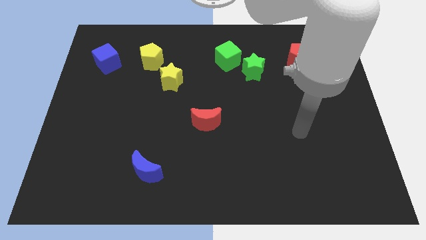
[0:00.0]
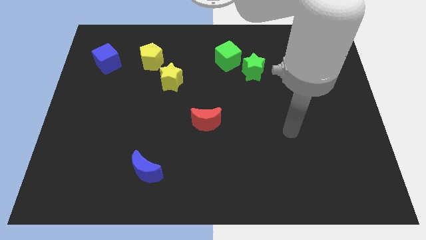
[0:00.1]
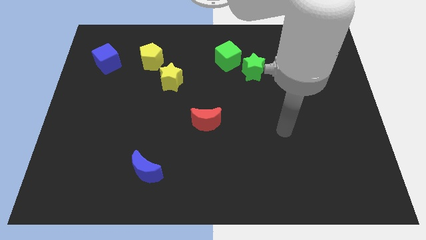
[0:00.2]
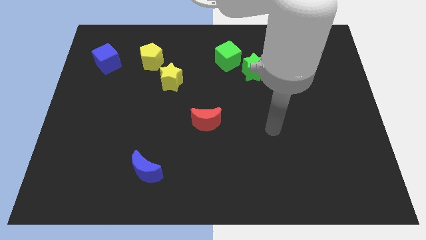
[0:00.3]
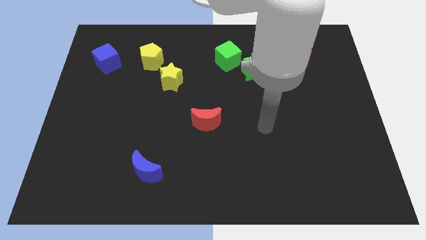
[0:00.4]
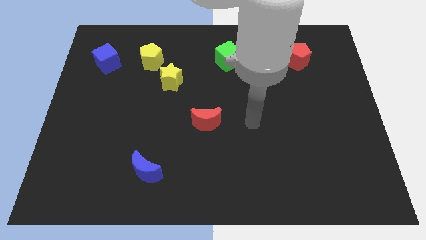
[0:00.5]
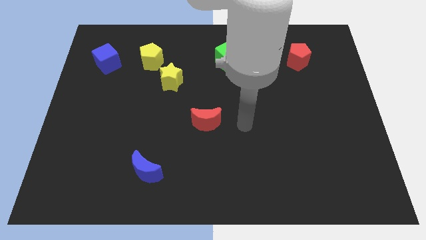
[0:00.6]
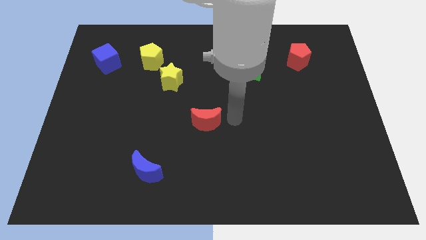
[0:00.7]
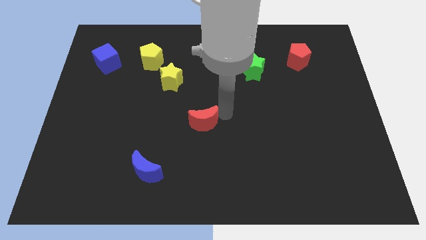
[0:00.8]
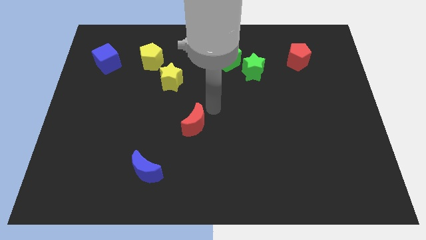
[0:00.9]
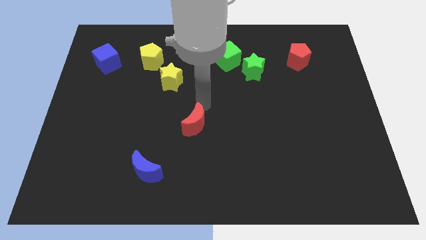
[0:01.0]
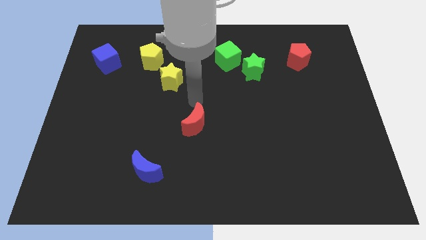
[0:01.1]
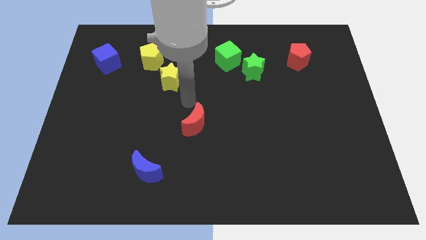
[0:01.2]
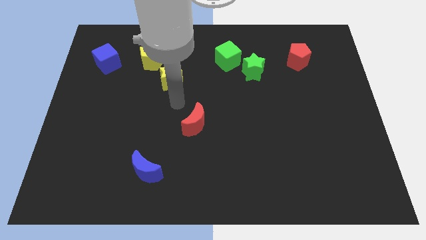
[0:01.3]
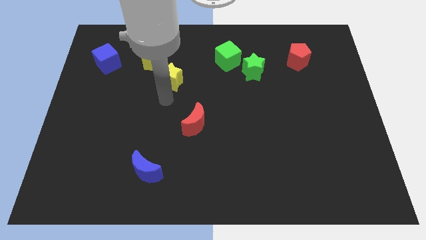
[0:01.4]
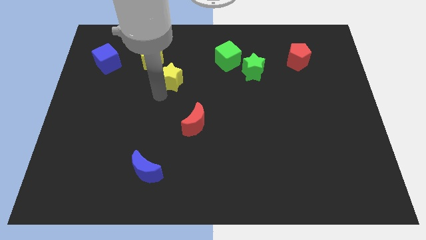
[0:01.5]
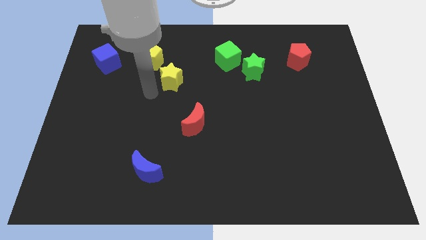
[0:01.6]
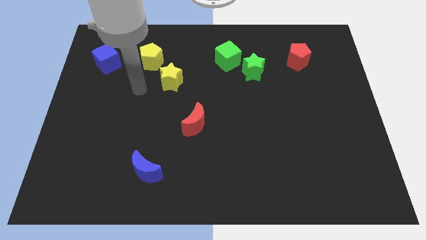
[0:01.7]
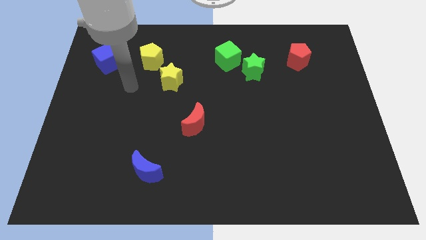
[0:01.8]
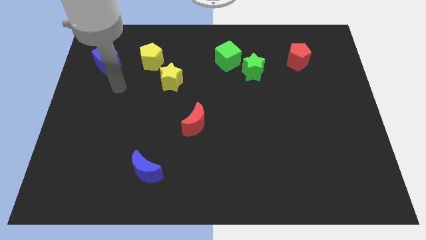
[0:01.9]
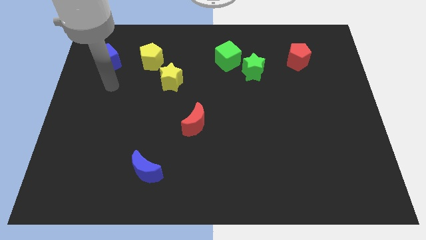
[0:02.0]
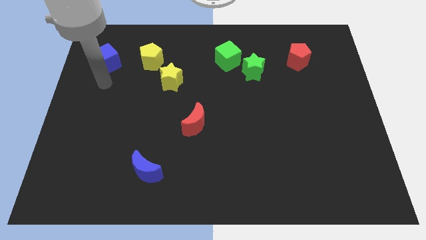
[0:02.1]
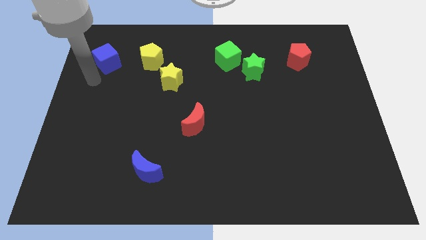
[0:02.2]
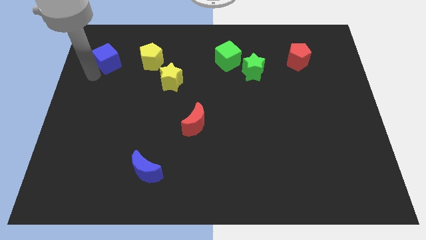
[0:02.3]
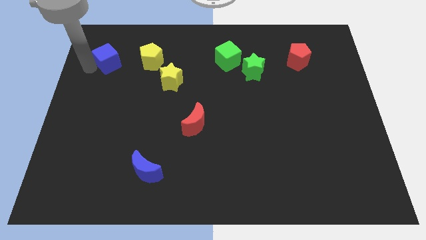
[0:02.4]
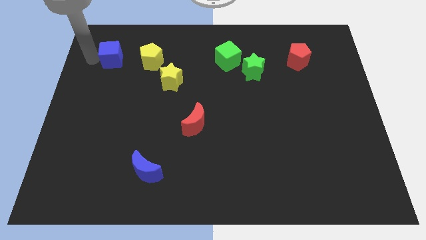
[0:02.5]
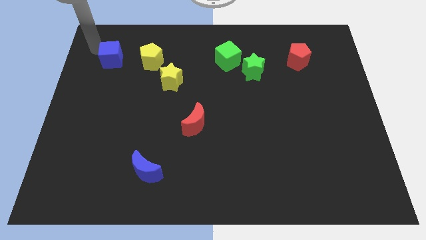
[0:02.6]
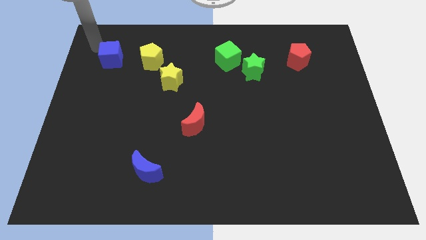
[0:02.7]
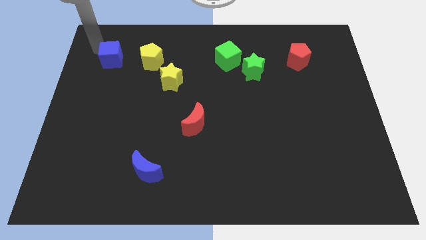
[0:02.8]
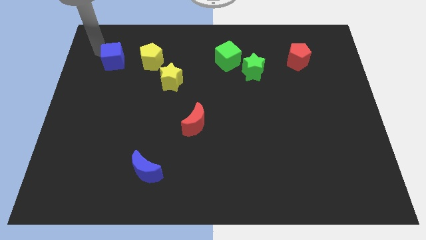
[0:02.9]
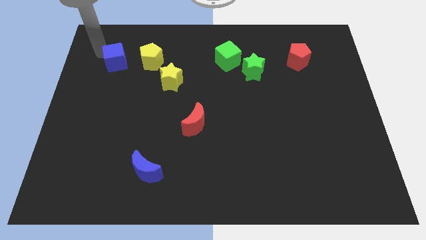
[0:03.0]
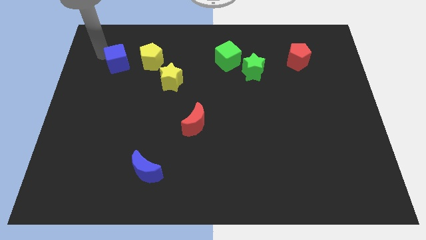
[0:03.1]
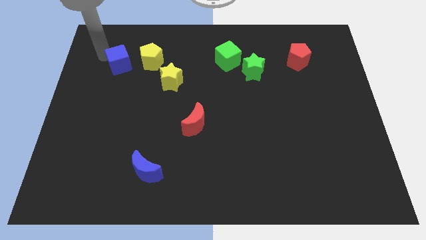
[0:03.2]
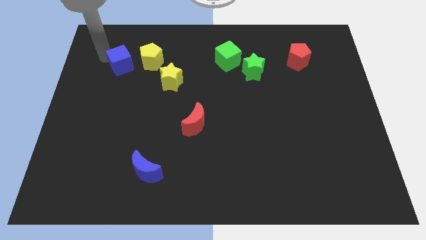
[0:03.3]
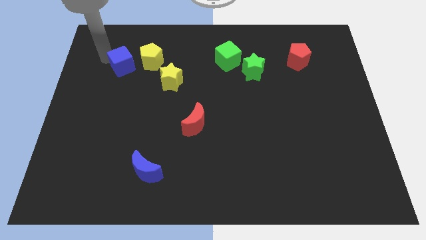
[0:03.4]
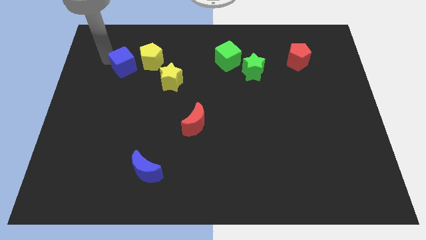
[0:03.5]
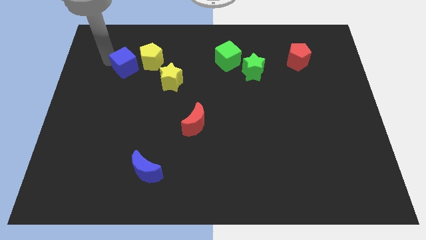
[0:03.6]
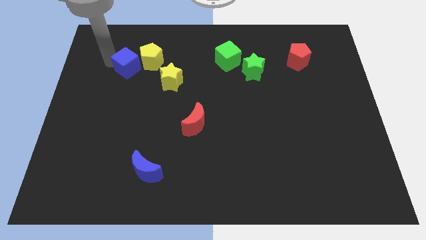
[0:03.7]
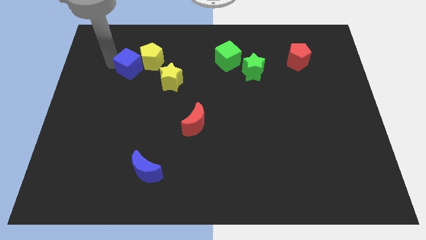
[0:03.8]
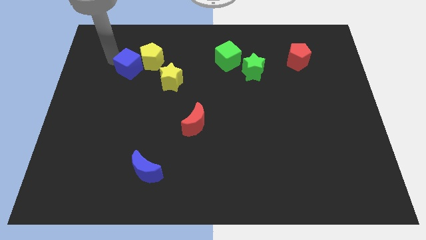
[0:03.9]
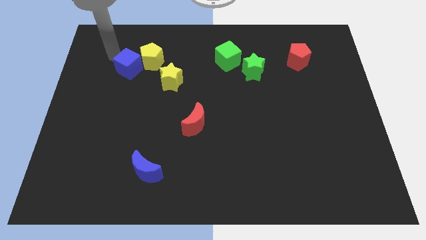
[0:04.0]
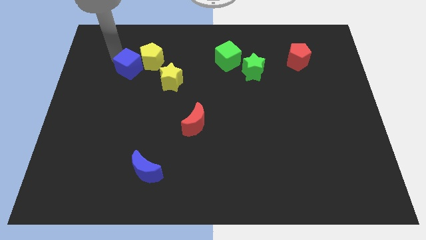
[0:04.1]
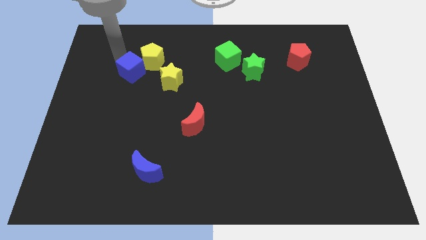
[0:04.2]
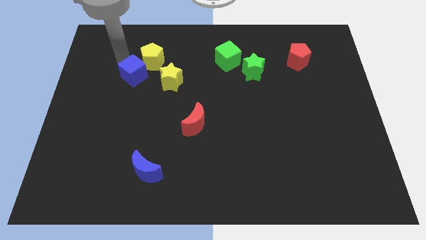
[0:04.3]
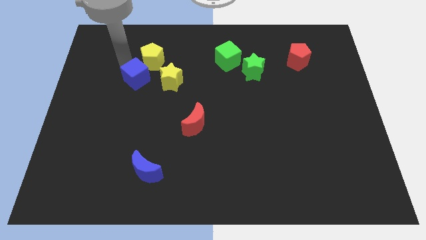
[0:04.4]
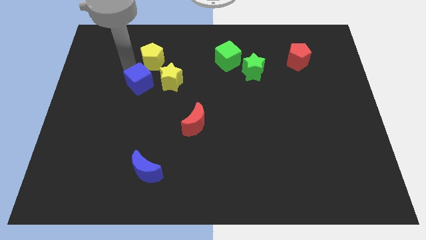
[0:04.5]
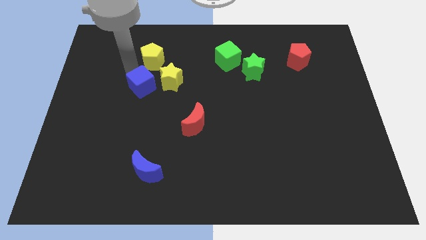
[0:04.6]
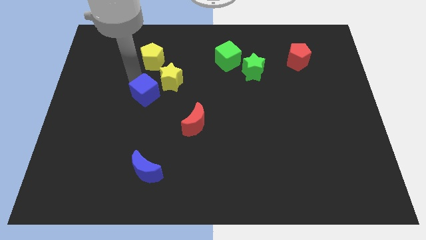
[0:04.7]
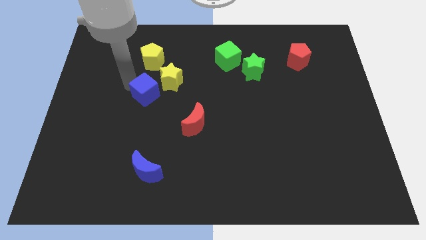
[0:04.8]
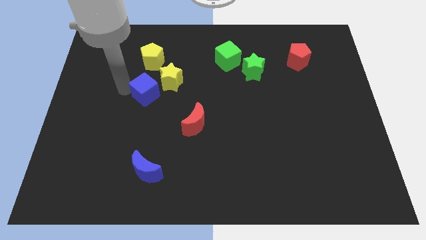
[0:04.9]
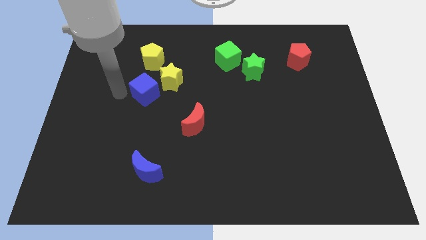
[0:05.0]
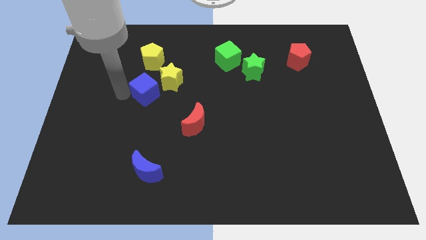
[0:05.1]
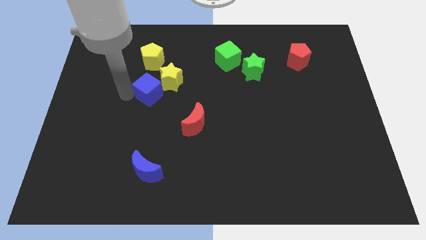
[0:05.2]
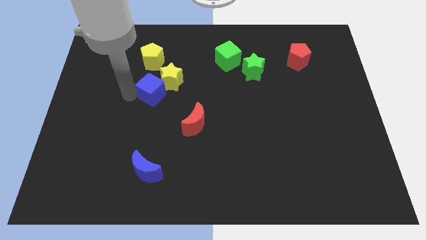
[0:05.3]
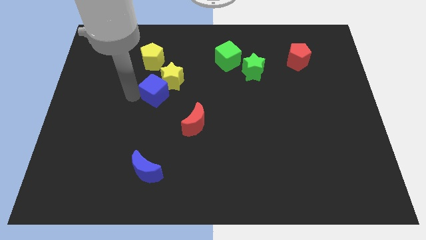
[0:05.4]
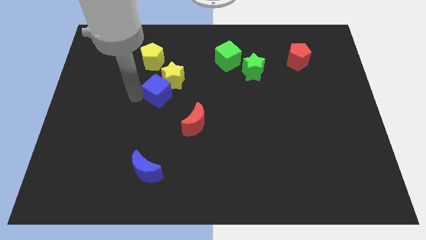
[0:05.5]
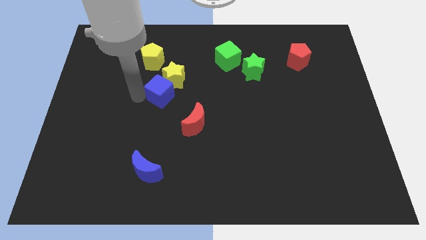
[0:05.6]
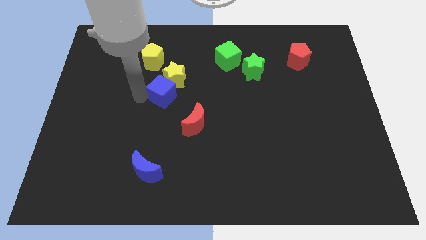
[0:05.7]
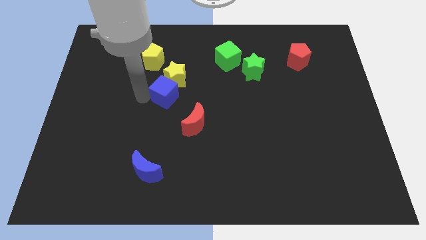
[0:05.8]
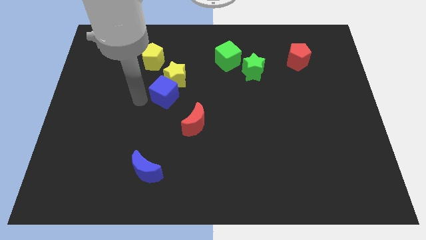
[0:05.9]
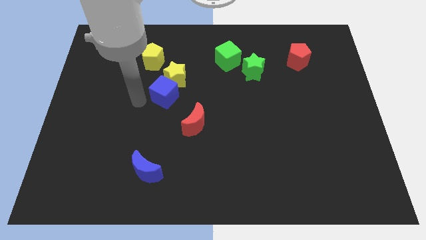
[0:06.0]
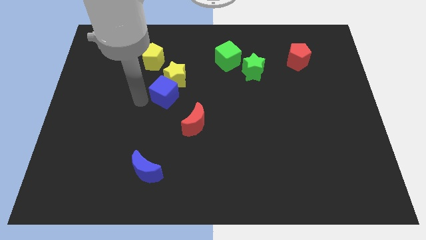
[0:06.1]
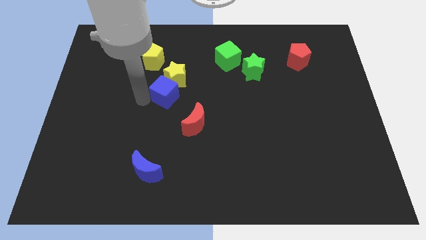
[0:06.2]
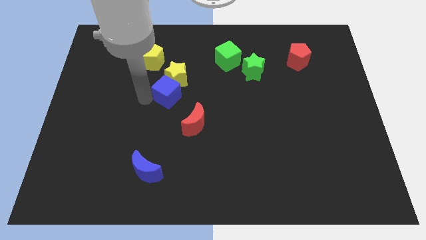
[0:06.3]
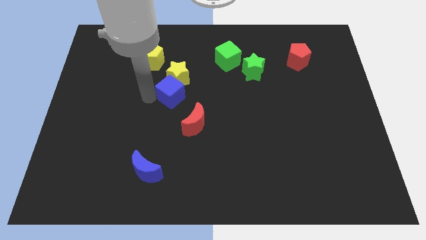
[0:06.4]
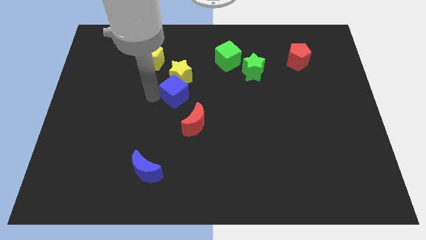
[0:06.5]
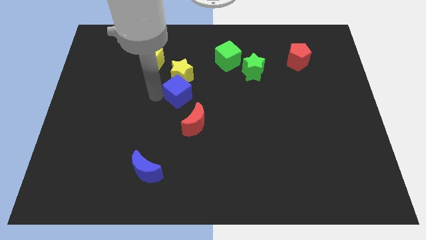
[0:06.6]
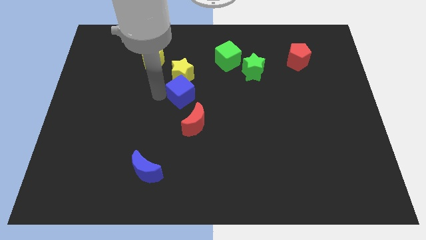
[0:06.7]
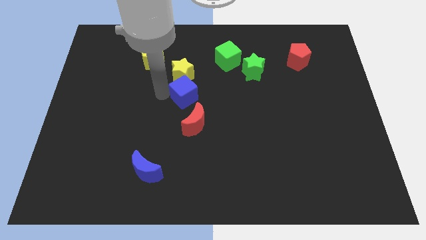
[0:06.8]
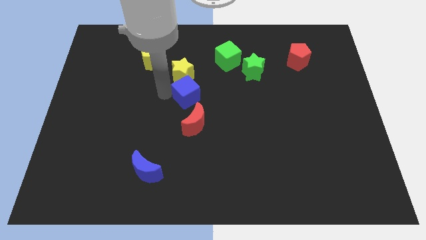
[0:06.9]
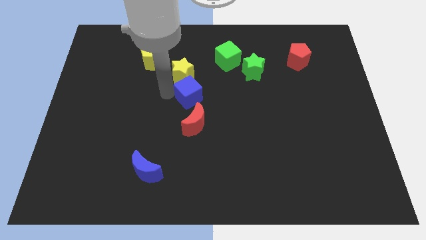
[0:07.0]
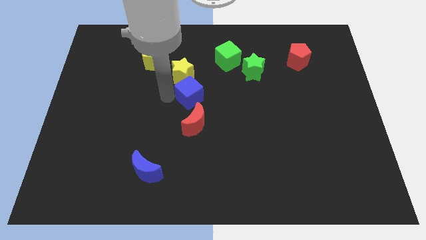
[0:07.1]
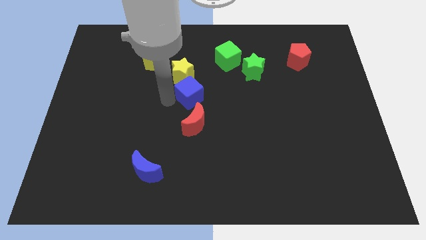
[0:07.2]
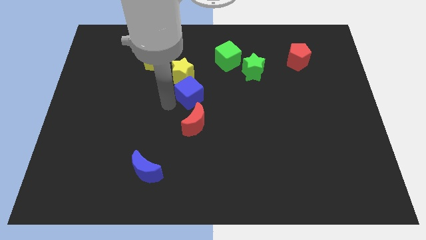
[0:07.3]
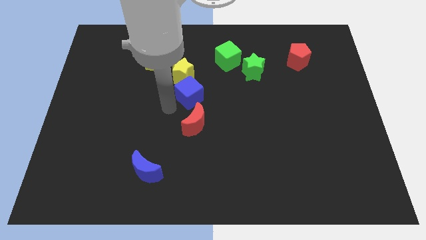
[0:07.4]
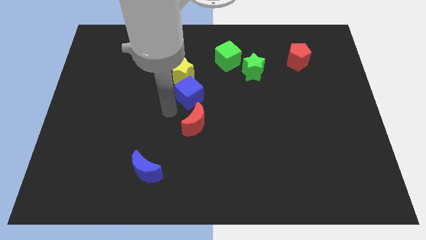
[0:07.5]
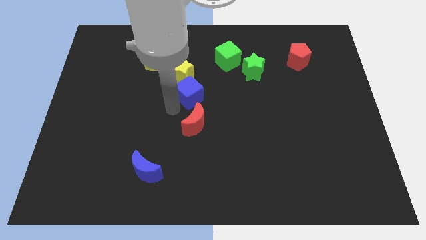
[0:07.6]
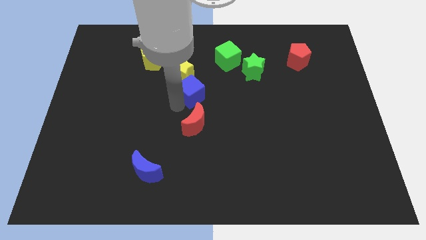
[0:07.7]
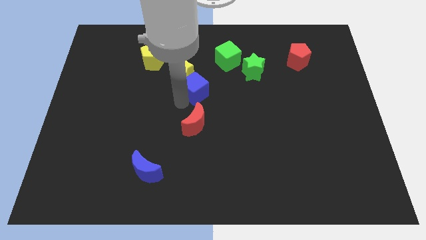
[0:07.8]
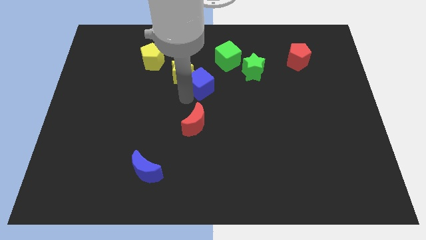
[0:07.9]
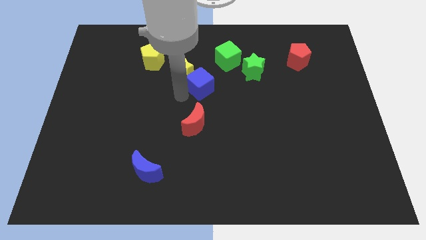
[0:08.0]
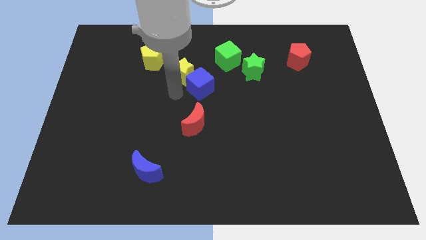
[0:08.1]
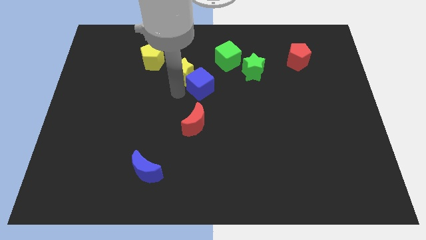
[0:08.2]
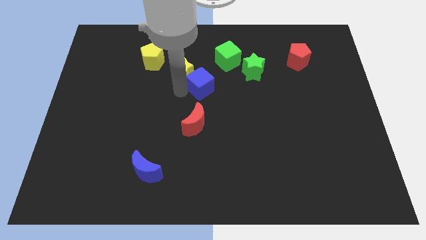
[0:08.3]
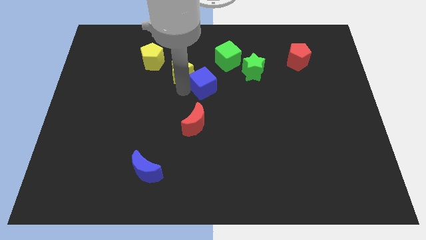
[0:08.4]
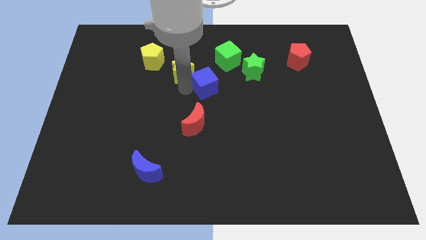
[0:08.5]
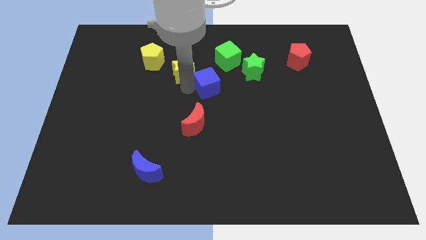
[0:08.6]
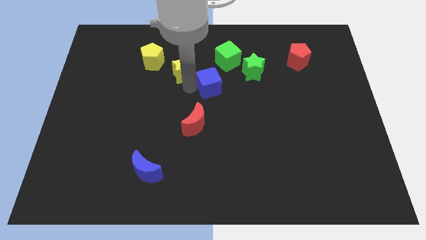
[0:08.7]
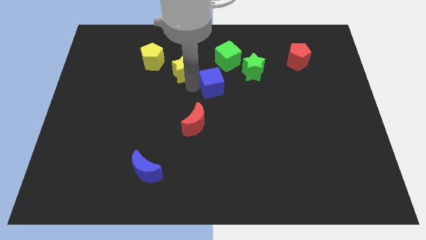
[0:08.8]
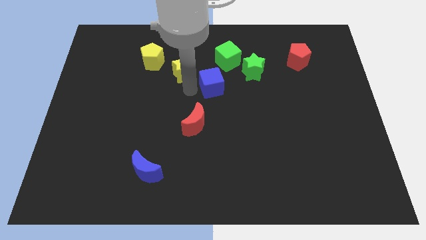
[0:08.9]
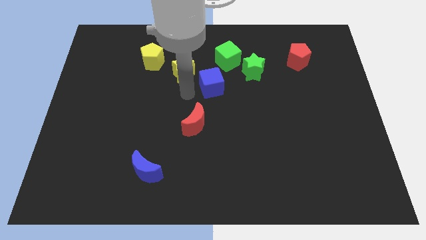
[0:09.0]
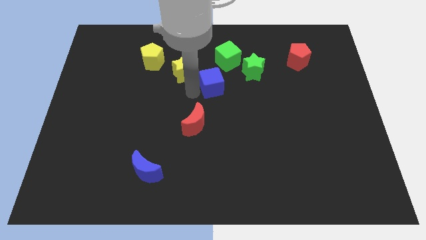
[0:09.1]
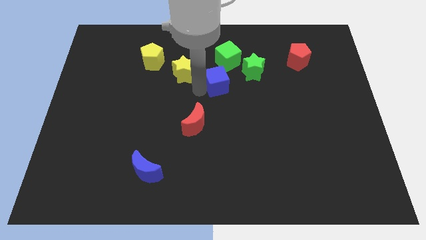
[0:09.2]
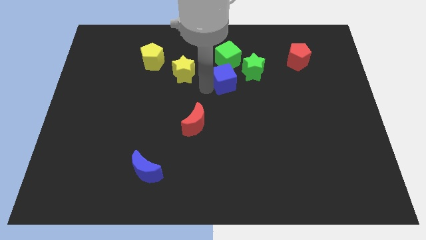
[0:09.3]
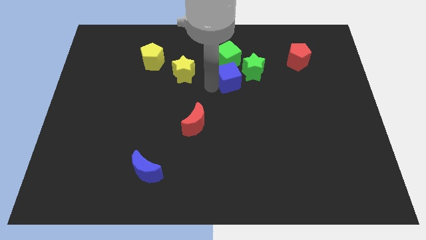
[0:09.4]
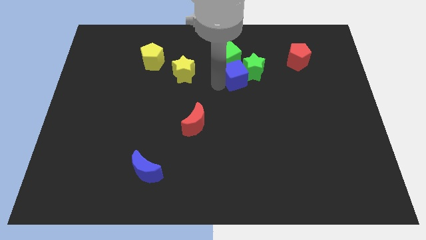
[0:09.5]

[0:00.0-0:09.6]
move the blue cube towards the green star
